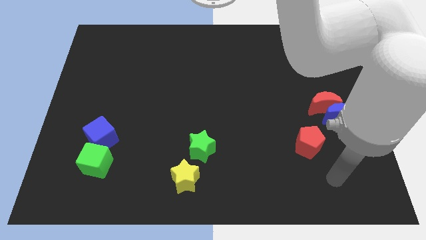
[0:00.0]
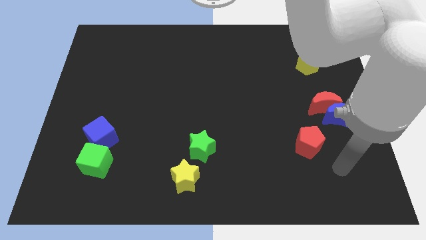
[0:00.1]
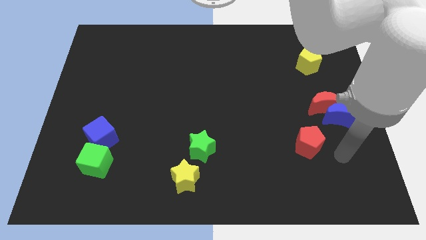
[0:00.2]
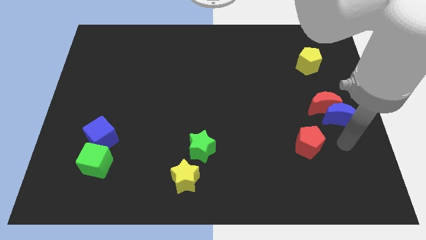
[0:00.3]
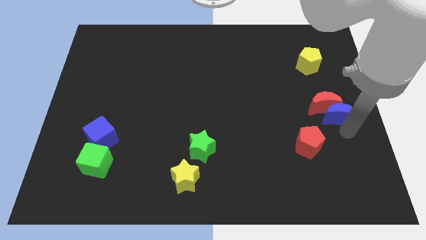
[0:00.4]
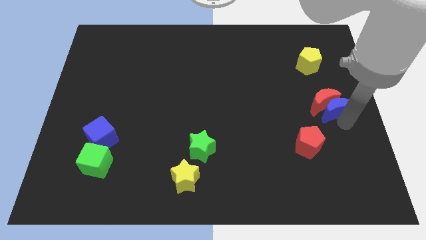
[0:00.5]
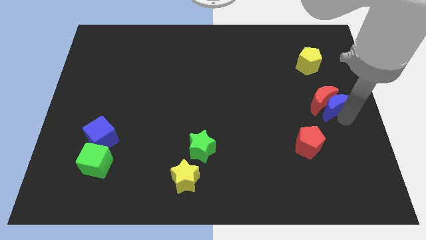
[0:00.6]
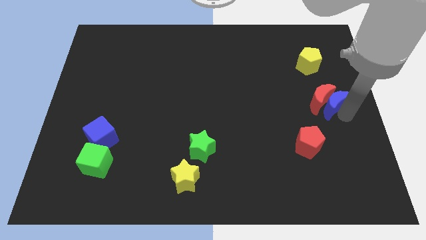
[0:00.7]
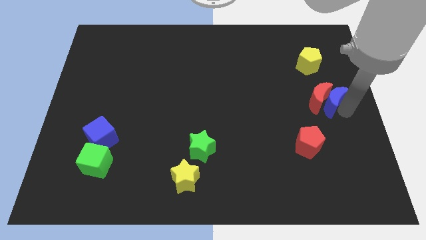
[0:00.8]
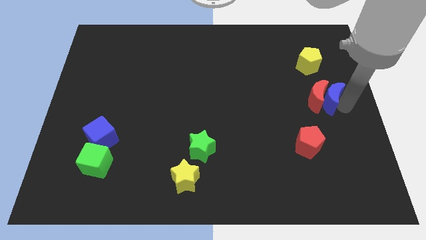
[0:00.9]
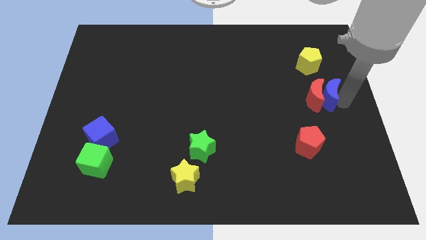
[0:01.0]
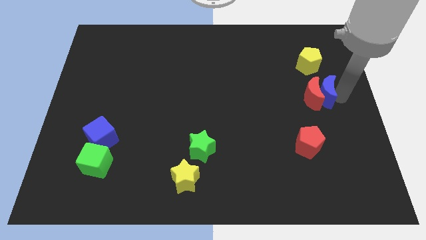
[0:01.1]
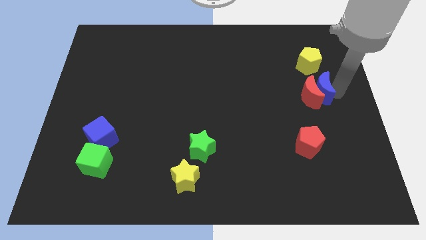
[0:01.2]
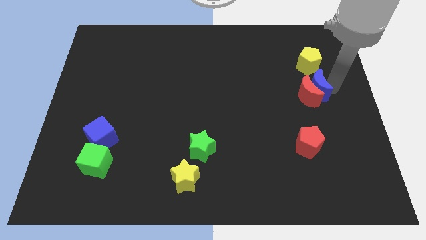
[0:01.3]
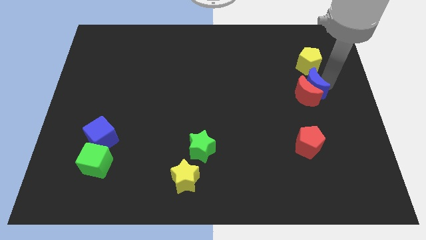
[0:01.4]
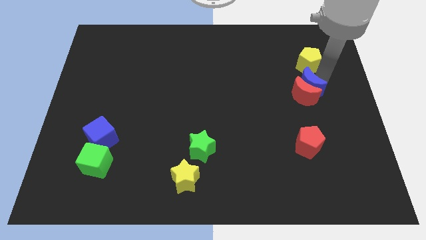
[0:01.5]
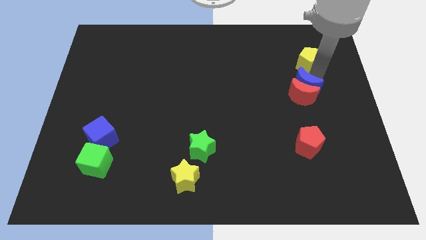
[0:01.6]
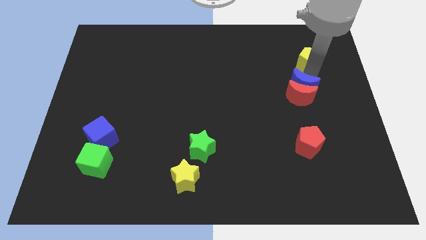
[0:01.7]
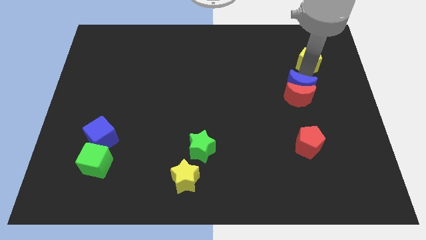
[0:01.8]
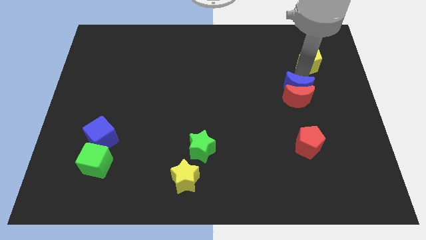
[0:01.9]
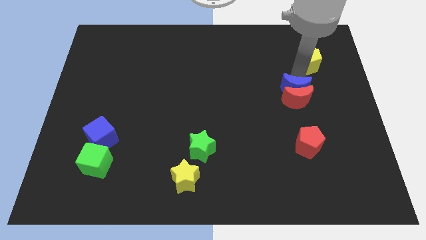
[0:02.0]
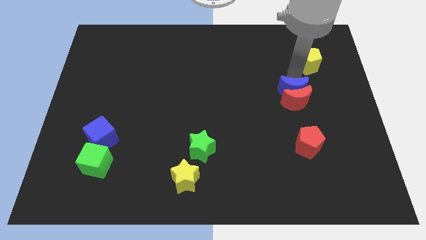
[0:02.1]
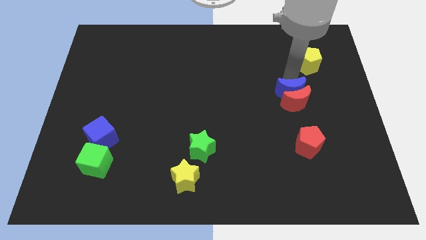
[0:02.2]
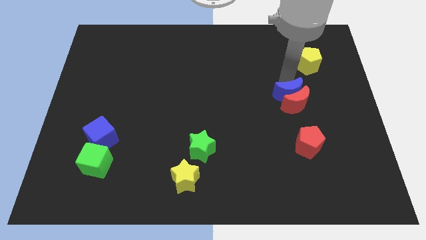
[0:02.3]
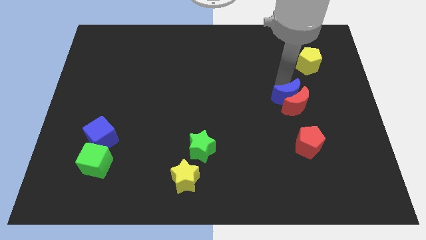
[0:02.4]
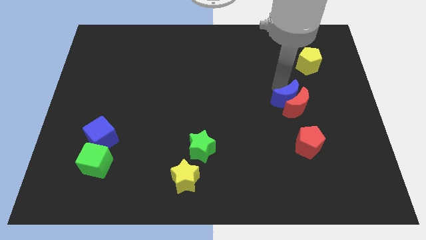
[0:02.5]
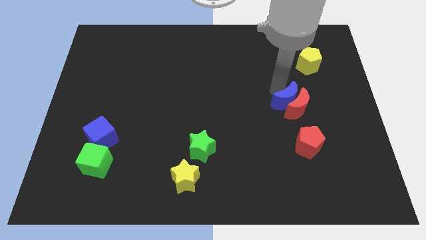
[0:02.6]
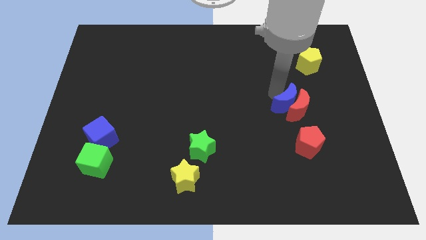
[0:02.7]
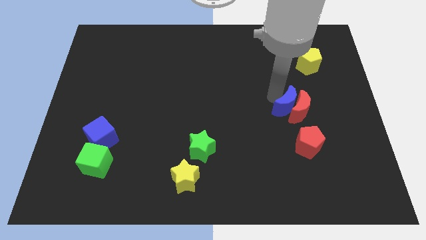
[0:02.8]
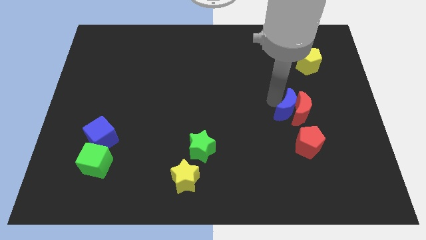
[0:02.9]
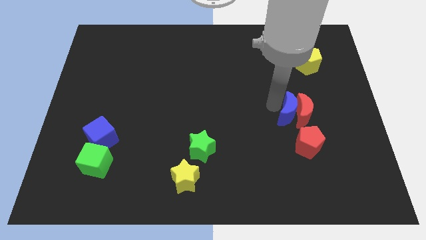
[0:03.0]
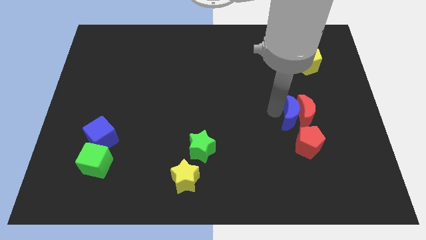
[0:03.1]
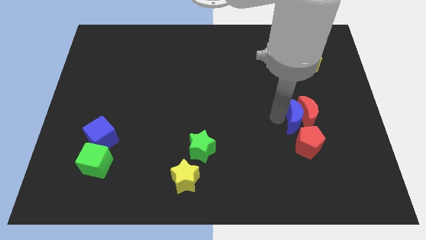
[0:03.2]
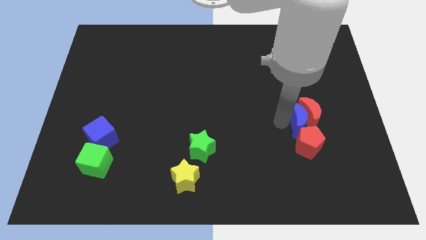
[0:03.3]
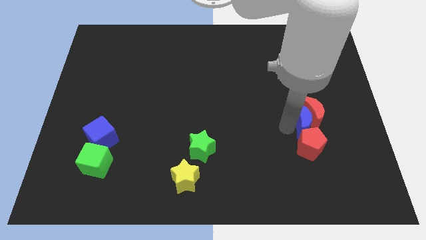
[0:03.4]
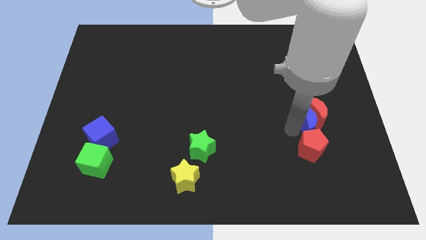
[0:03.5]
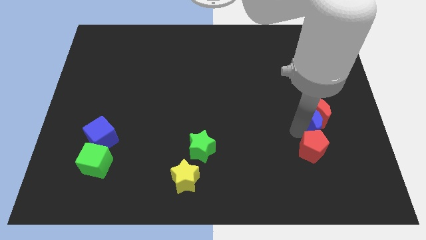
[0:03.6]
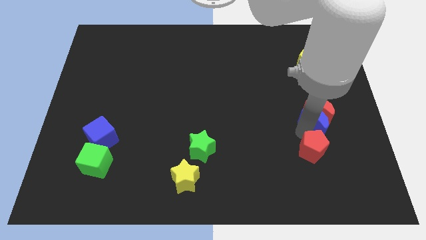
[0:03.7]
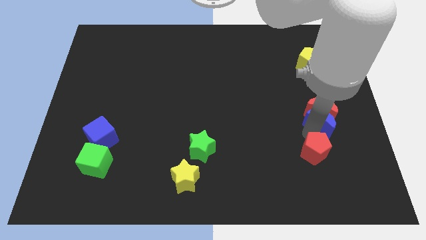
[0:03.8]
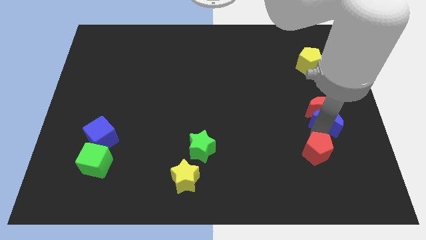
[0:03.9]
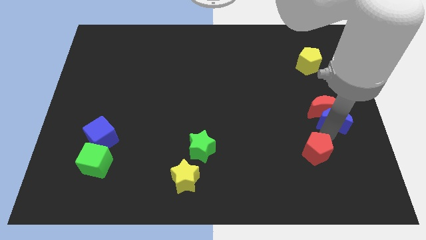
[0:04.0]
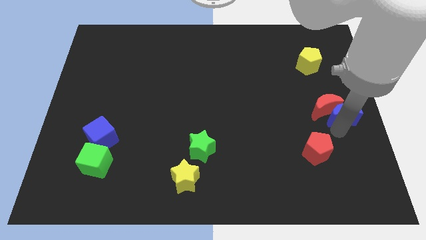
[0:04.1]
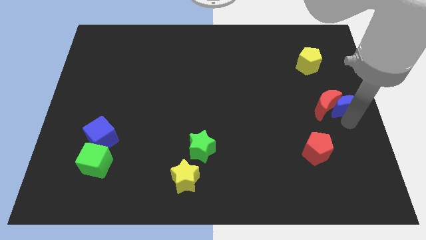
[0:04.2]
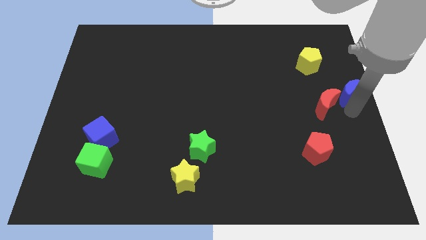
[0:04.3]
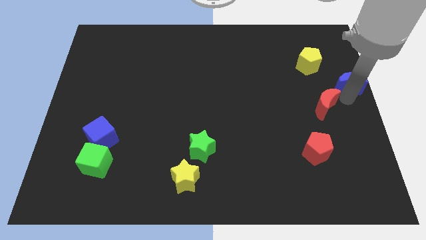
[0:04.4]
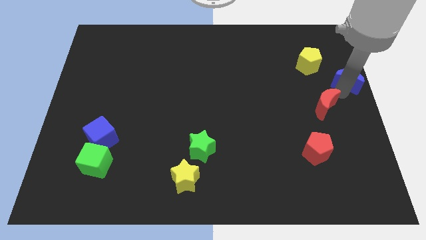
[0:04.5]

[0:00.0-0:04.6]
separate the red moon from the blue moon

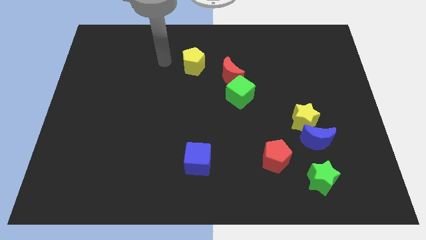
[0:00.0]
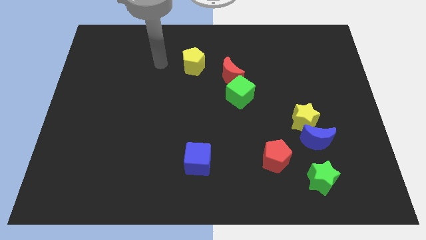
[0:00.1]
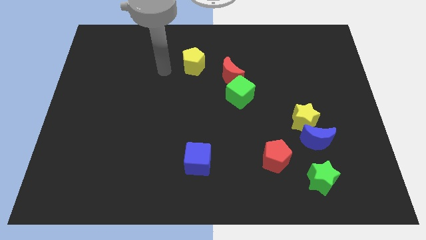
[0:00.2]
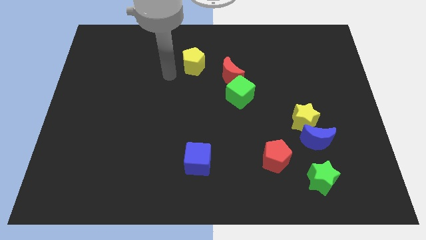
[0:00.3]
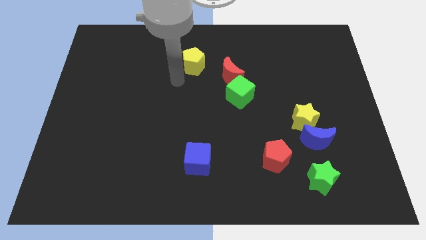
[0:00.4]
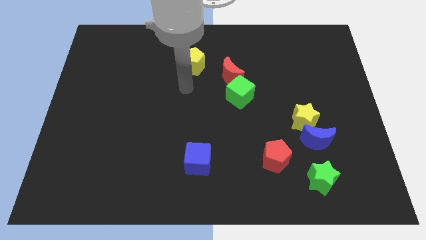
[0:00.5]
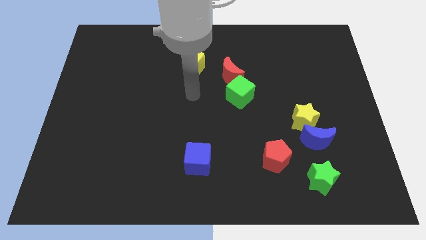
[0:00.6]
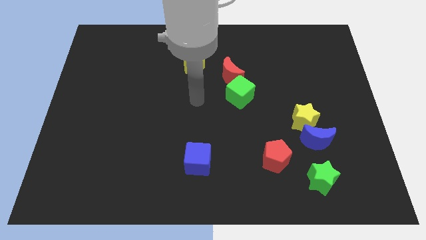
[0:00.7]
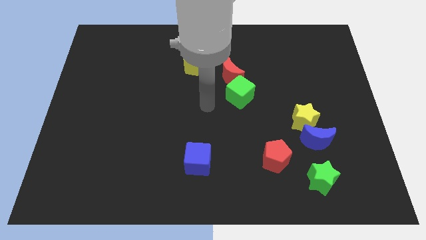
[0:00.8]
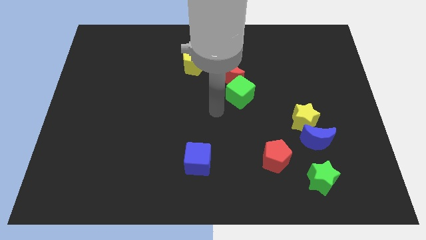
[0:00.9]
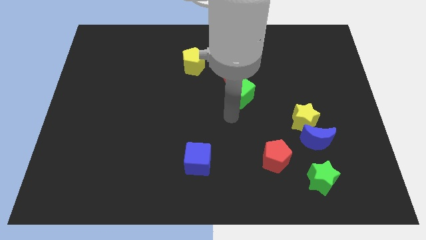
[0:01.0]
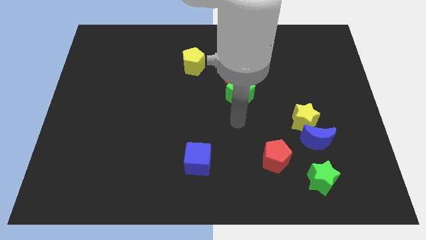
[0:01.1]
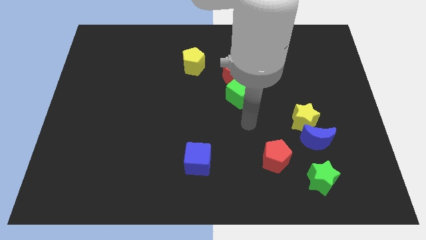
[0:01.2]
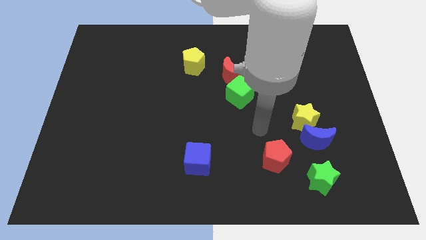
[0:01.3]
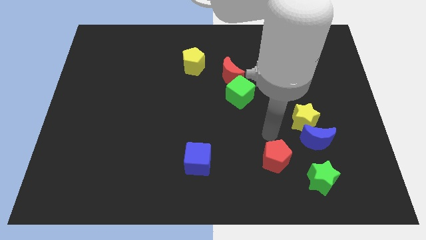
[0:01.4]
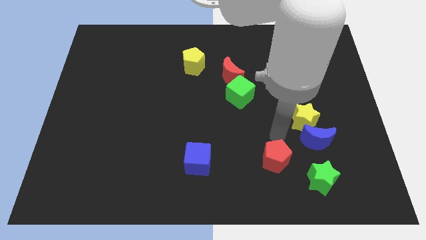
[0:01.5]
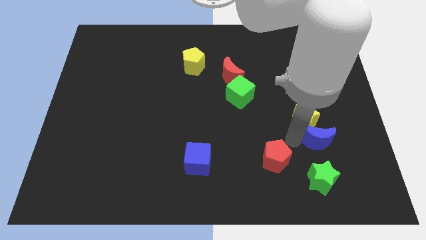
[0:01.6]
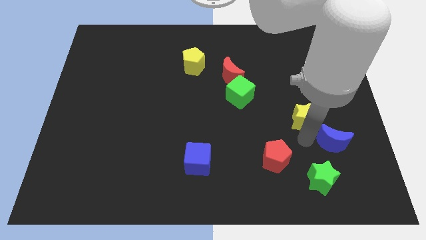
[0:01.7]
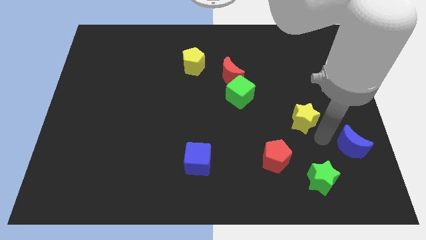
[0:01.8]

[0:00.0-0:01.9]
move the yellow star away from the blue moon

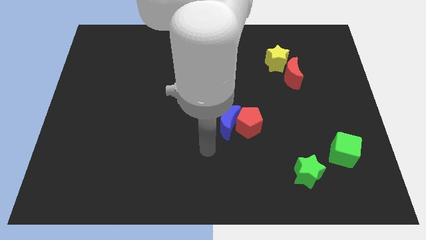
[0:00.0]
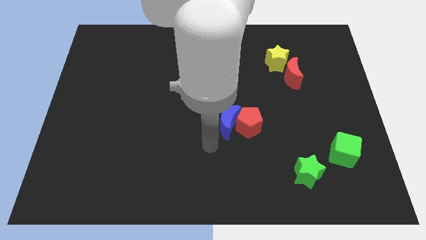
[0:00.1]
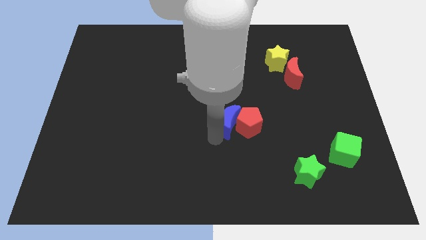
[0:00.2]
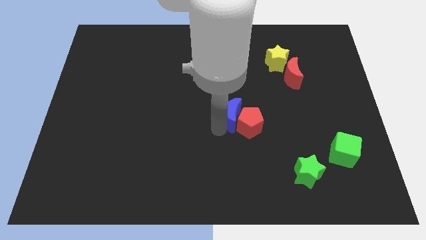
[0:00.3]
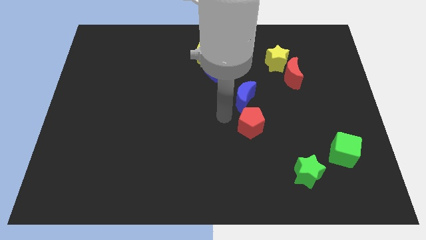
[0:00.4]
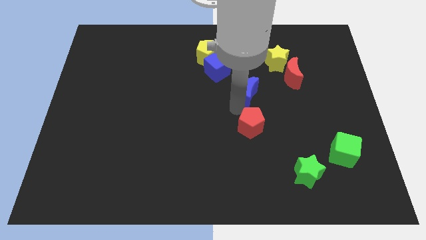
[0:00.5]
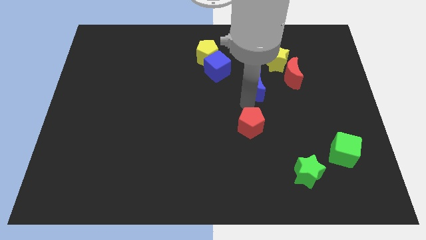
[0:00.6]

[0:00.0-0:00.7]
separate the red pentagon from the blue moon

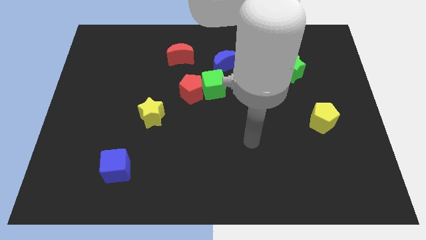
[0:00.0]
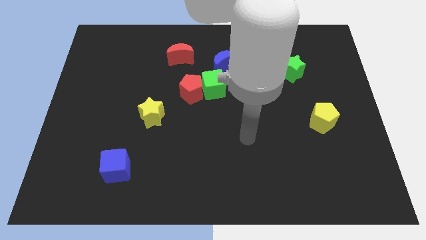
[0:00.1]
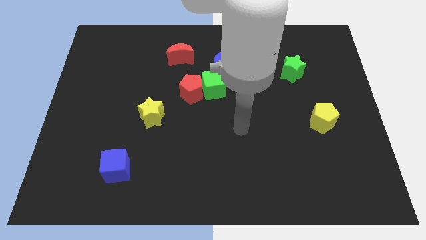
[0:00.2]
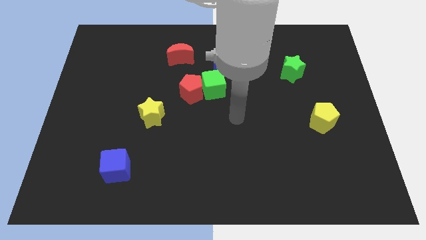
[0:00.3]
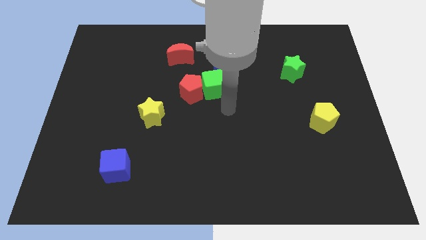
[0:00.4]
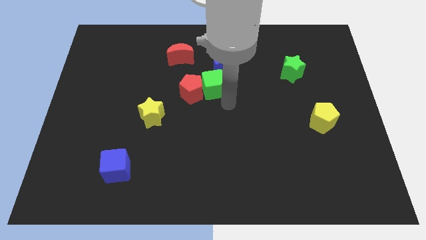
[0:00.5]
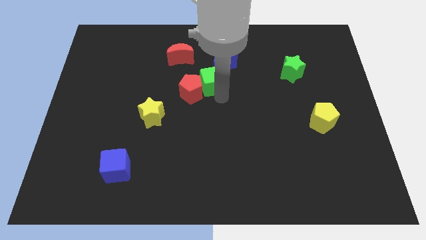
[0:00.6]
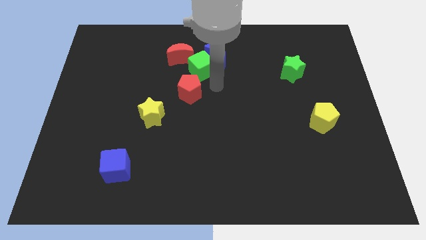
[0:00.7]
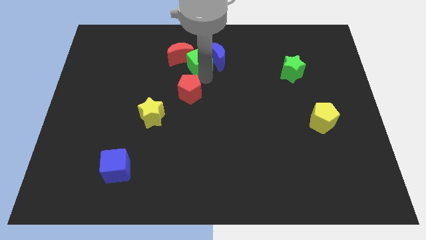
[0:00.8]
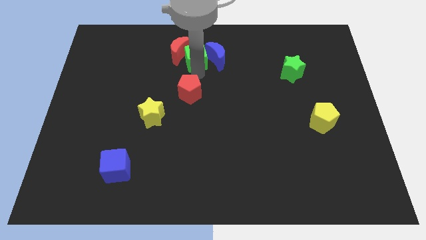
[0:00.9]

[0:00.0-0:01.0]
separate the red pentagon from the green cube

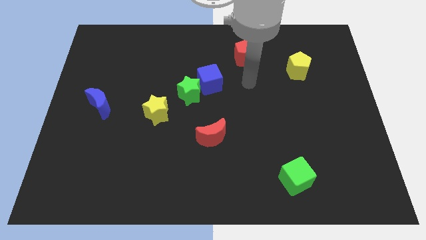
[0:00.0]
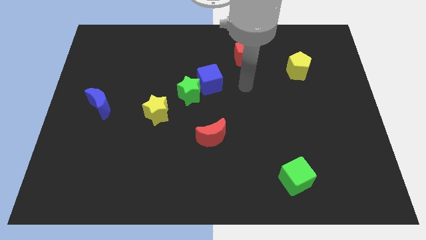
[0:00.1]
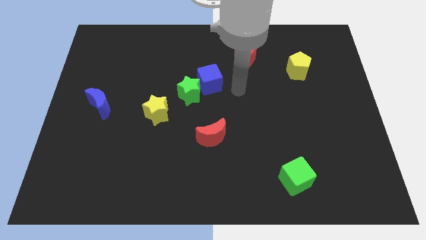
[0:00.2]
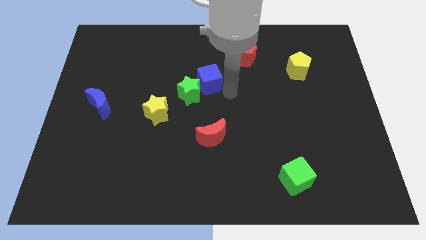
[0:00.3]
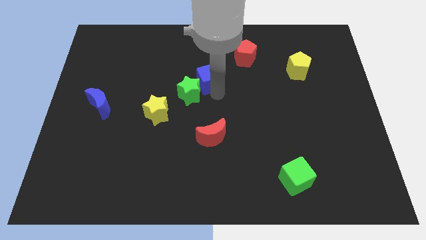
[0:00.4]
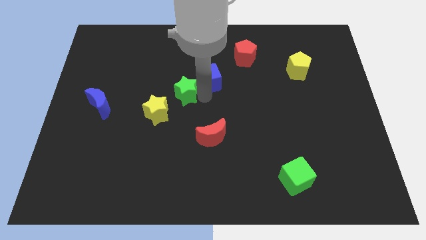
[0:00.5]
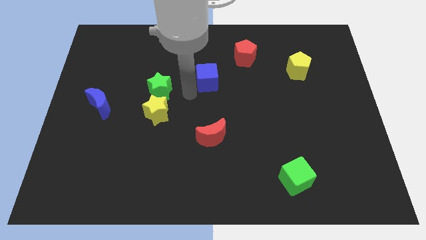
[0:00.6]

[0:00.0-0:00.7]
pull the blue cube apart from the green star

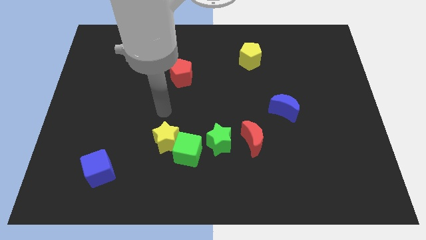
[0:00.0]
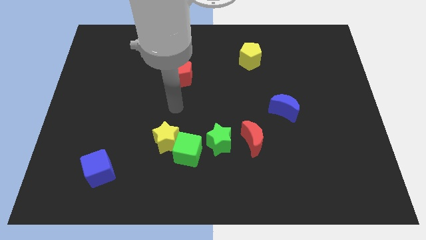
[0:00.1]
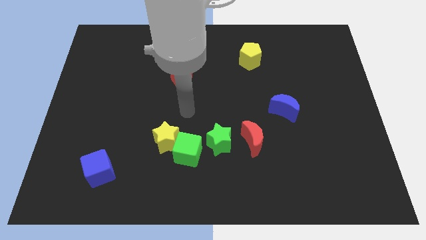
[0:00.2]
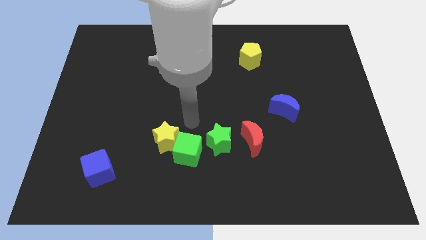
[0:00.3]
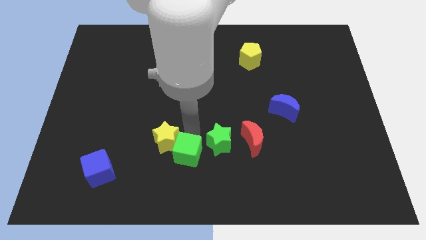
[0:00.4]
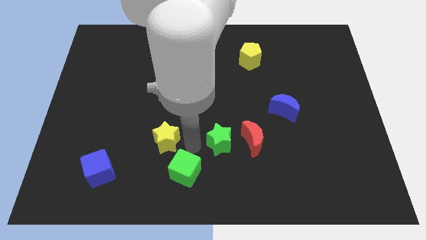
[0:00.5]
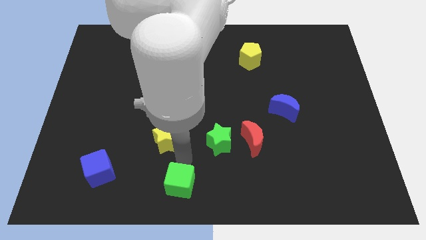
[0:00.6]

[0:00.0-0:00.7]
pull the yellow star apart from the green cube
